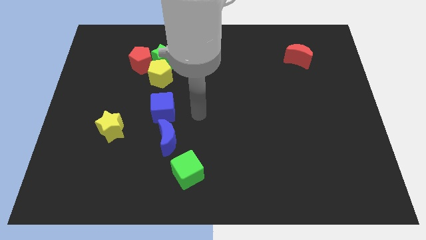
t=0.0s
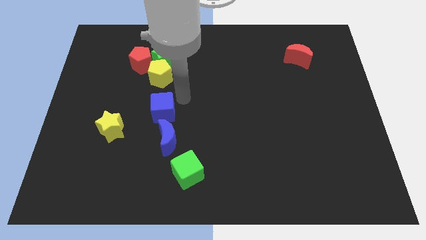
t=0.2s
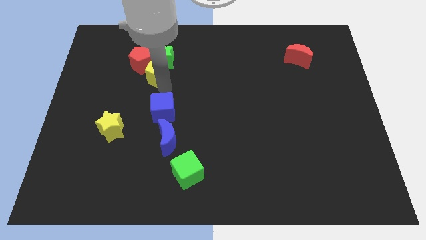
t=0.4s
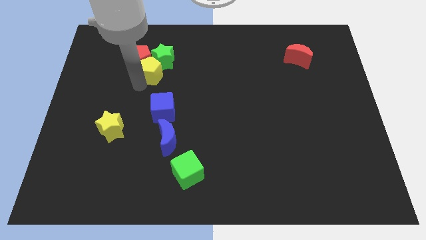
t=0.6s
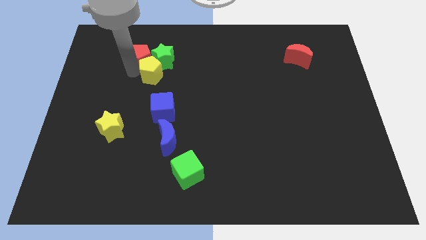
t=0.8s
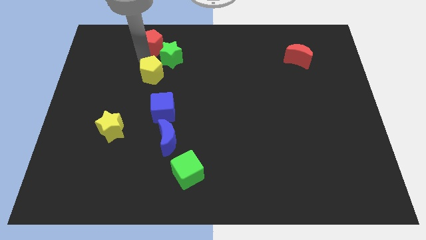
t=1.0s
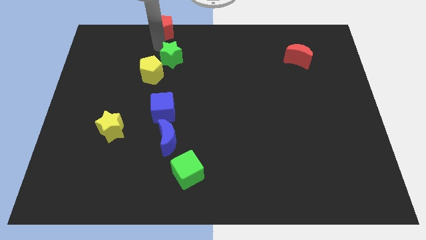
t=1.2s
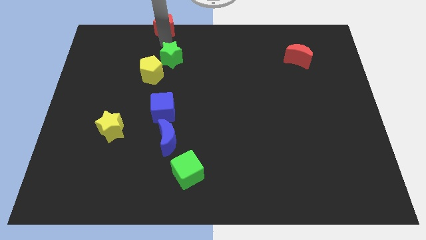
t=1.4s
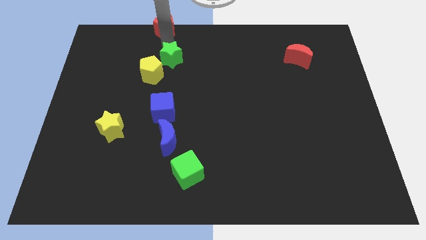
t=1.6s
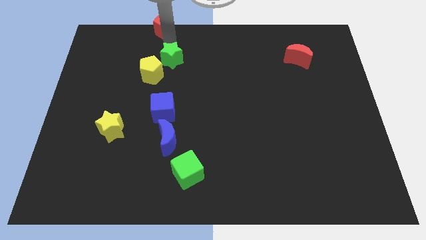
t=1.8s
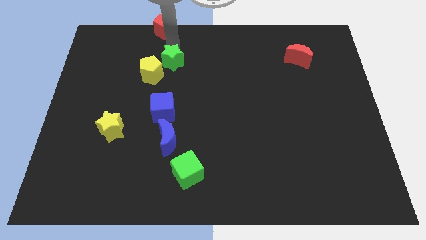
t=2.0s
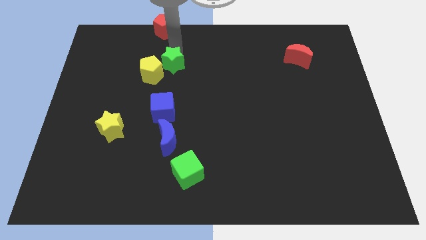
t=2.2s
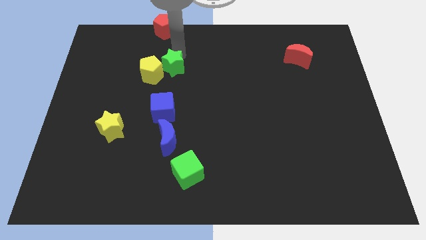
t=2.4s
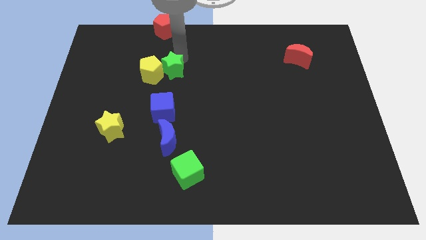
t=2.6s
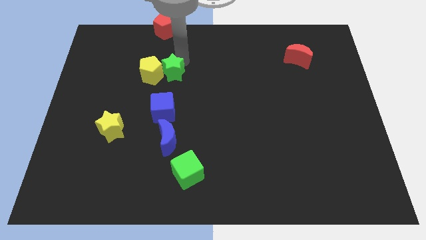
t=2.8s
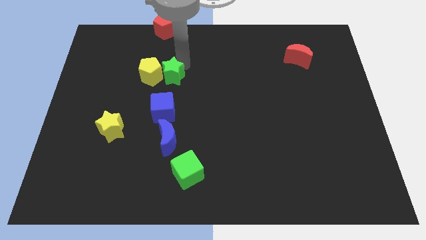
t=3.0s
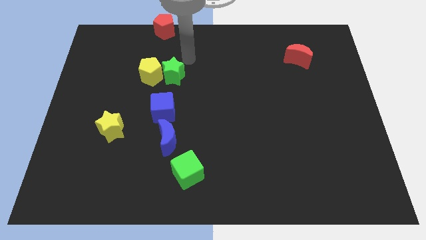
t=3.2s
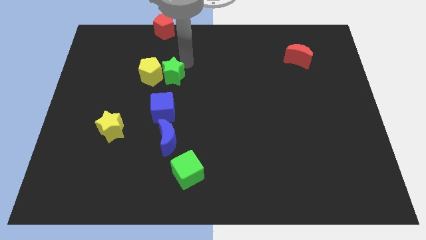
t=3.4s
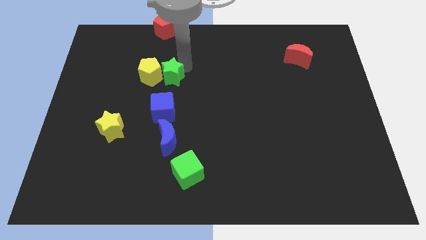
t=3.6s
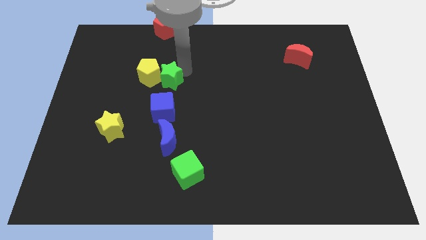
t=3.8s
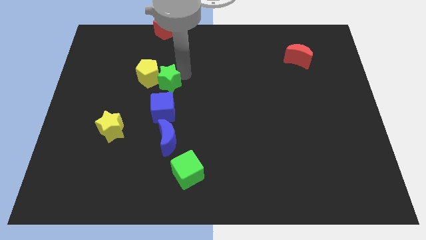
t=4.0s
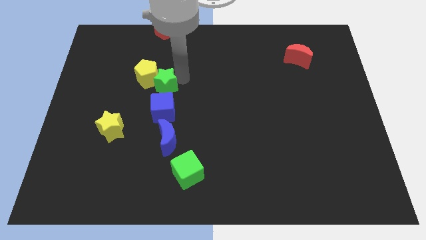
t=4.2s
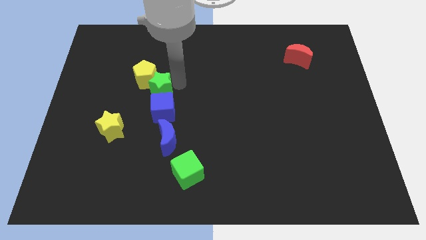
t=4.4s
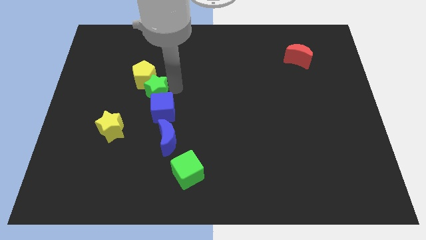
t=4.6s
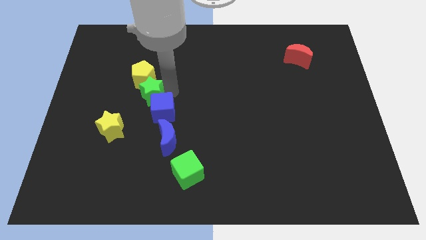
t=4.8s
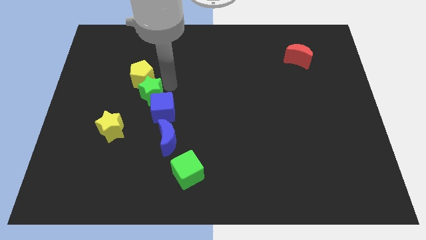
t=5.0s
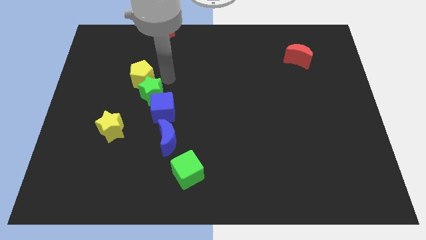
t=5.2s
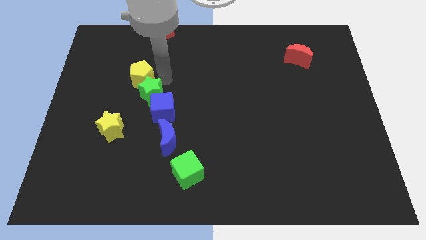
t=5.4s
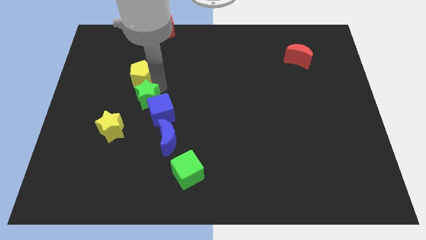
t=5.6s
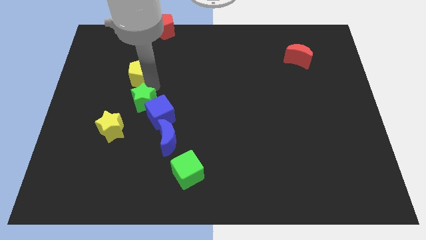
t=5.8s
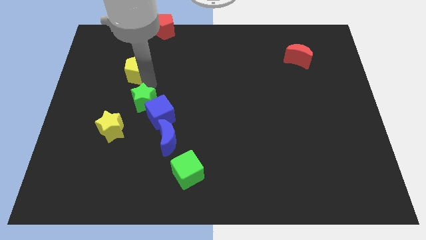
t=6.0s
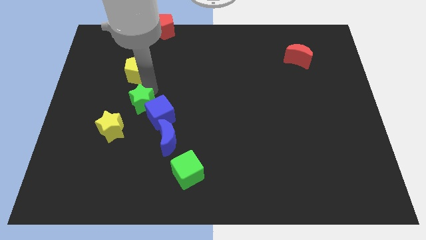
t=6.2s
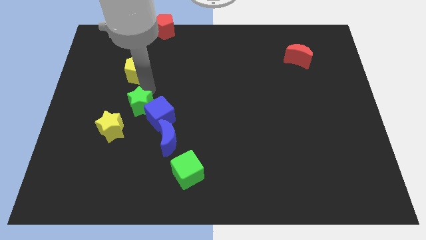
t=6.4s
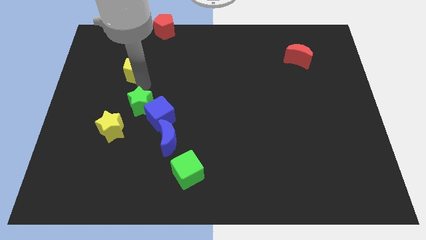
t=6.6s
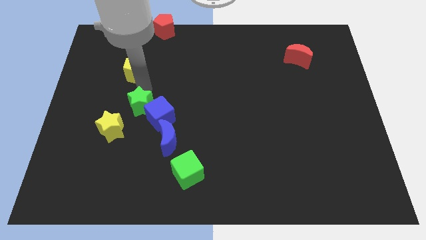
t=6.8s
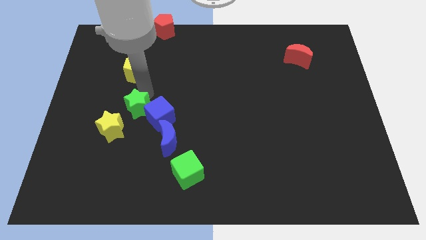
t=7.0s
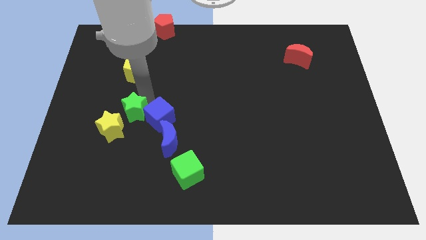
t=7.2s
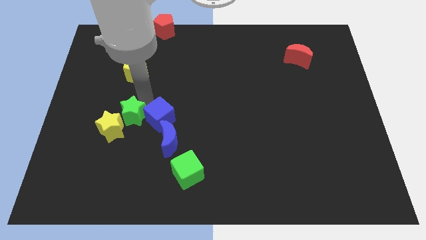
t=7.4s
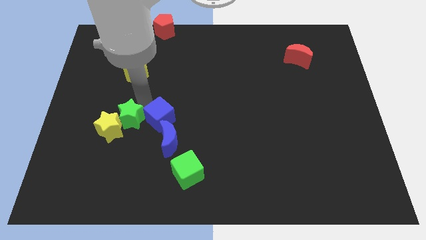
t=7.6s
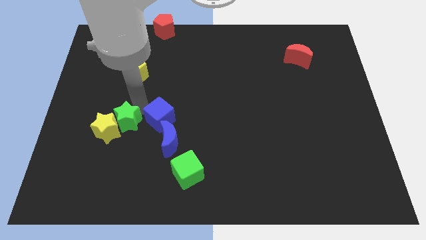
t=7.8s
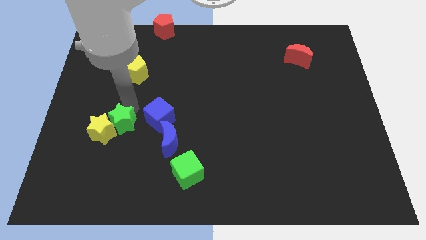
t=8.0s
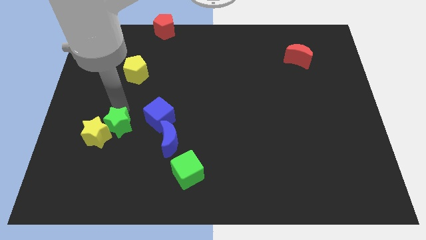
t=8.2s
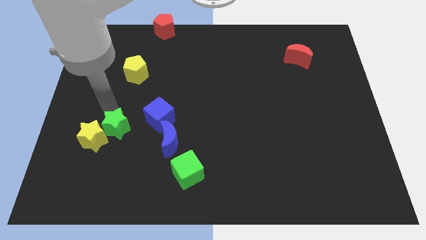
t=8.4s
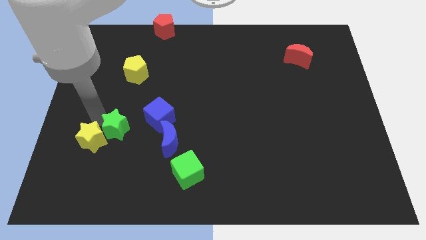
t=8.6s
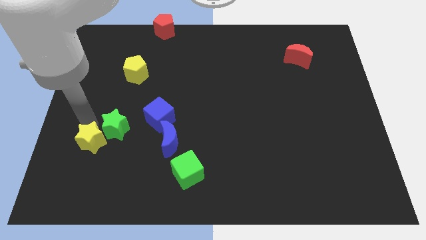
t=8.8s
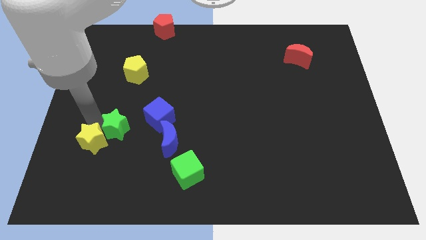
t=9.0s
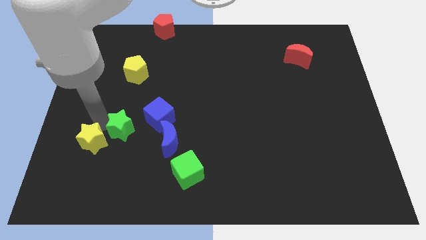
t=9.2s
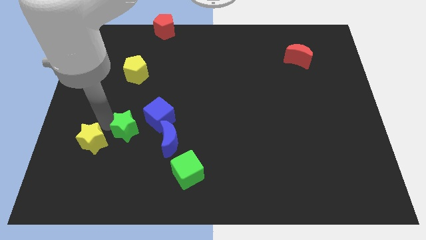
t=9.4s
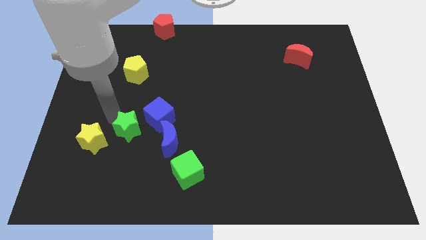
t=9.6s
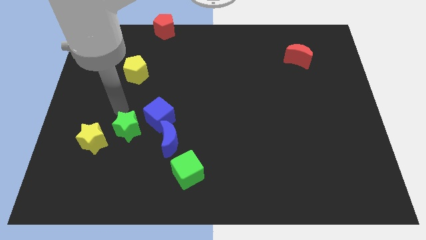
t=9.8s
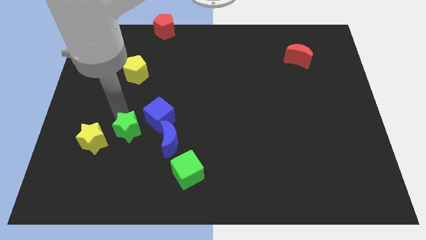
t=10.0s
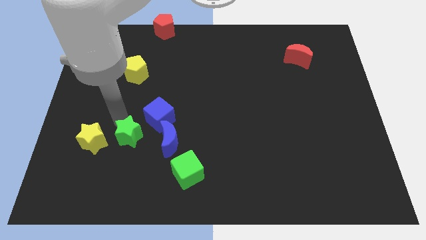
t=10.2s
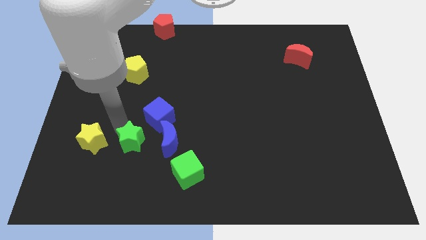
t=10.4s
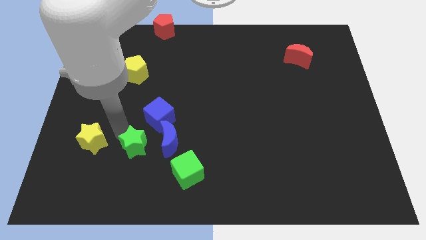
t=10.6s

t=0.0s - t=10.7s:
slide the green star to the bottom left side of the blue moon
